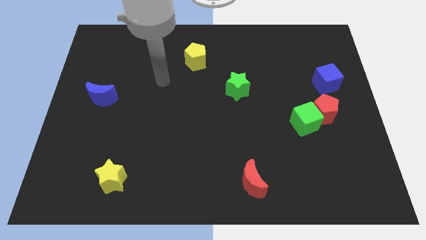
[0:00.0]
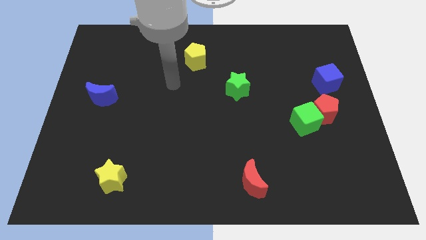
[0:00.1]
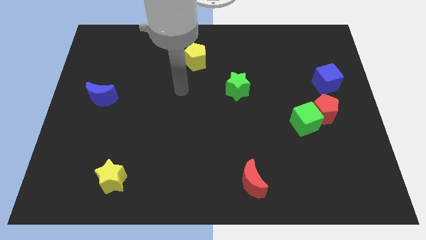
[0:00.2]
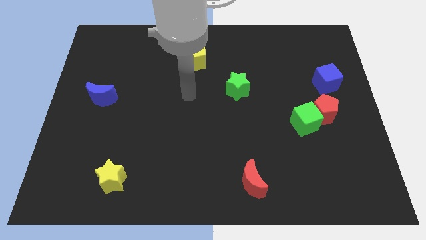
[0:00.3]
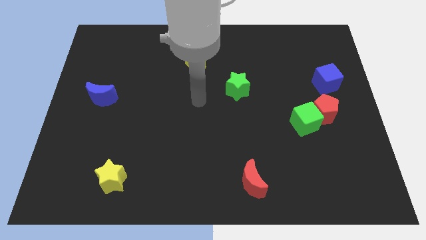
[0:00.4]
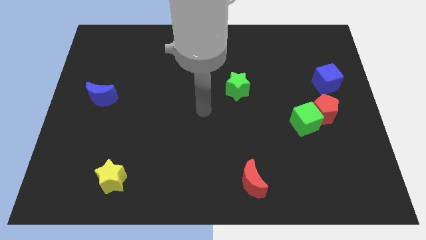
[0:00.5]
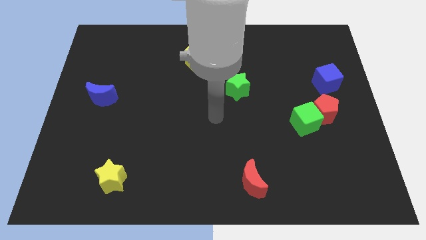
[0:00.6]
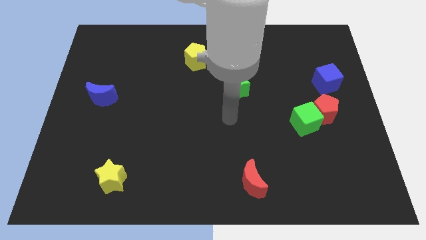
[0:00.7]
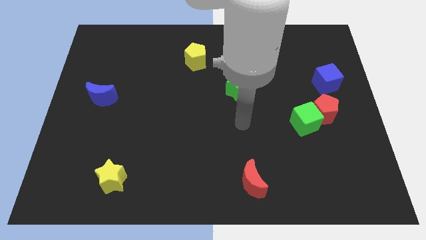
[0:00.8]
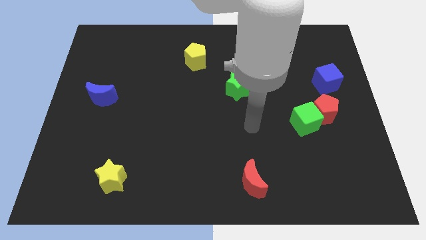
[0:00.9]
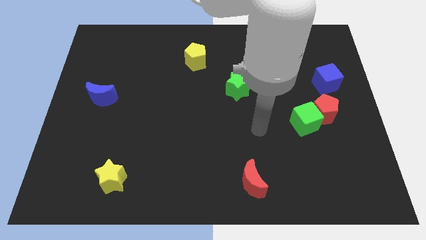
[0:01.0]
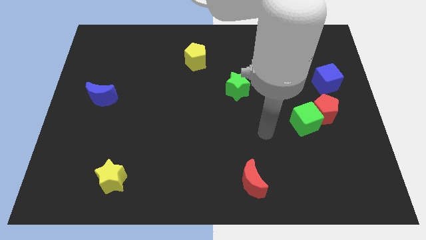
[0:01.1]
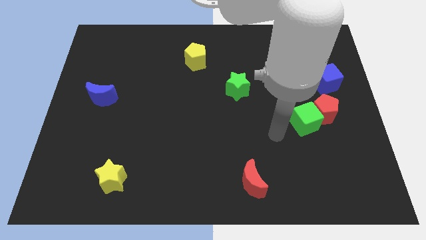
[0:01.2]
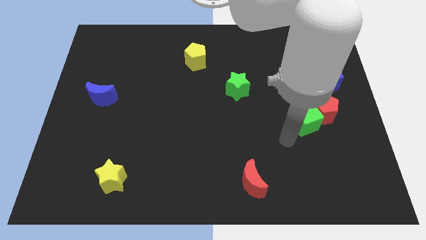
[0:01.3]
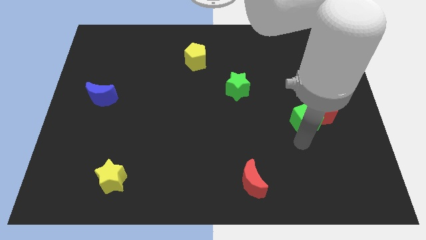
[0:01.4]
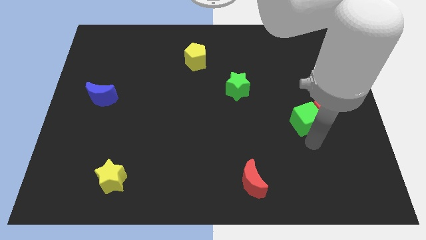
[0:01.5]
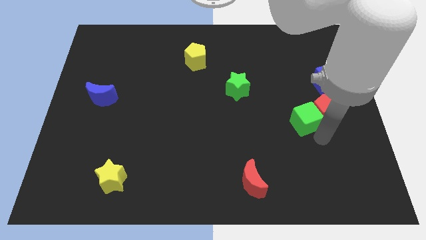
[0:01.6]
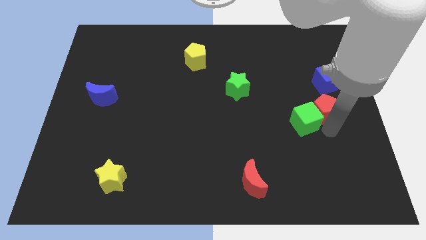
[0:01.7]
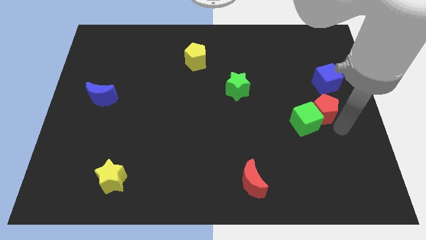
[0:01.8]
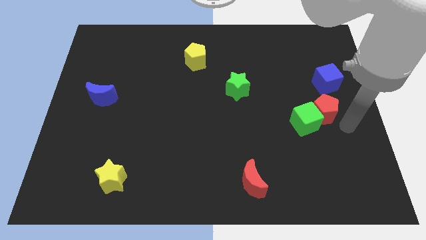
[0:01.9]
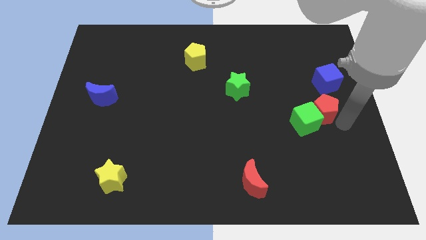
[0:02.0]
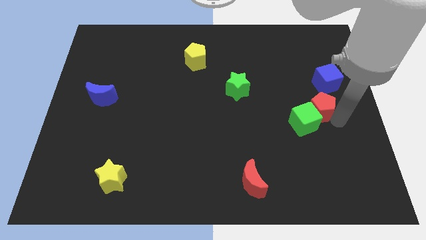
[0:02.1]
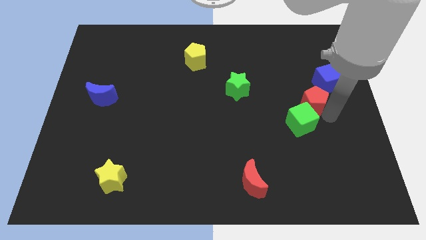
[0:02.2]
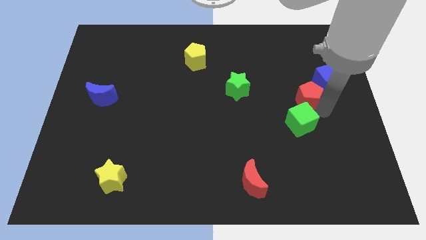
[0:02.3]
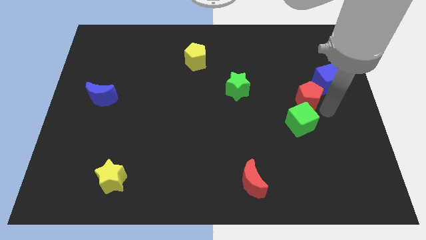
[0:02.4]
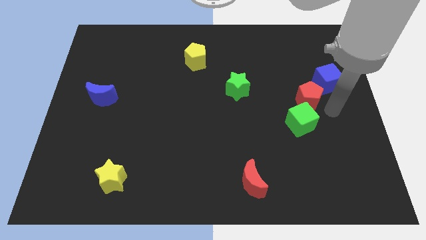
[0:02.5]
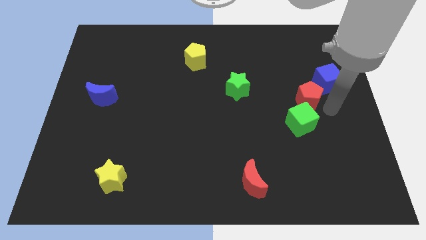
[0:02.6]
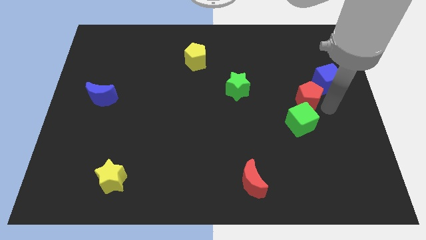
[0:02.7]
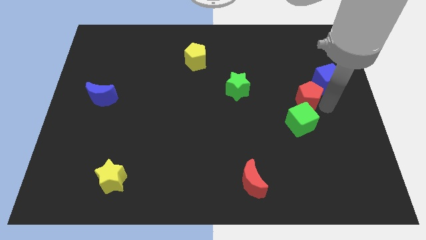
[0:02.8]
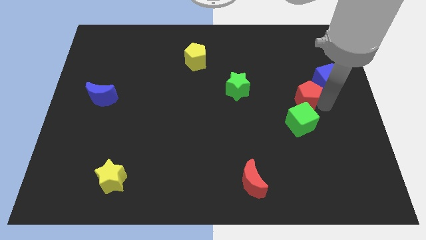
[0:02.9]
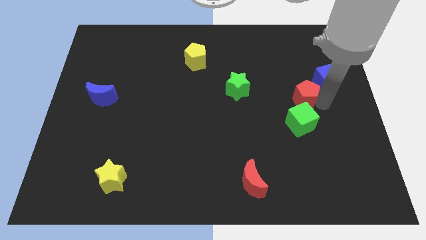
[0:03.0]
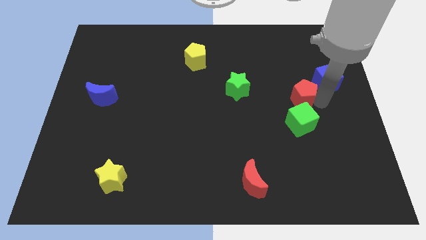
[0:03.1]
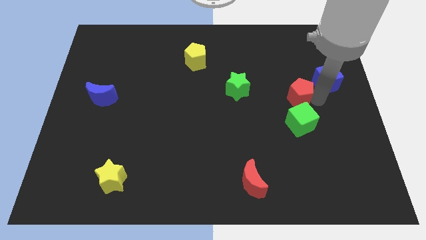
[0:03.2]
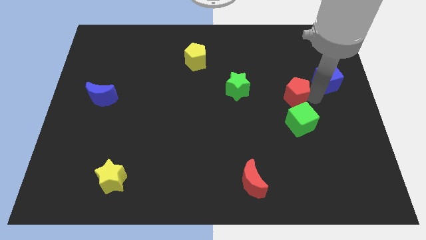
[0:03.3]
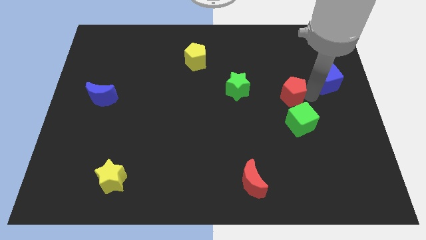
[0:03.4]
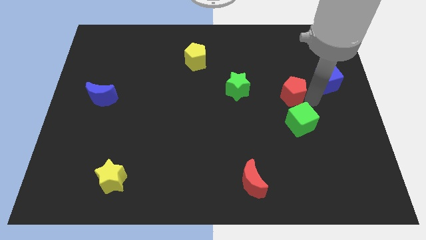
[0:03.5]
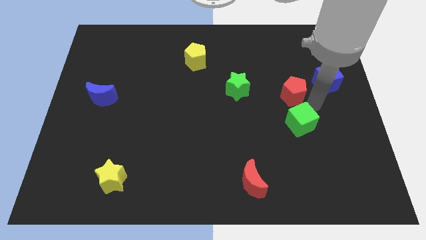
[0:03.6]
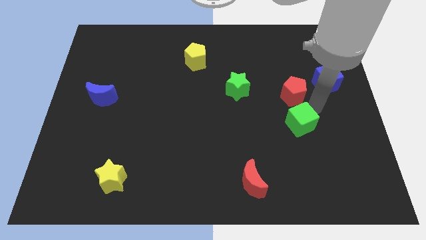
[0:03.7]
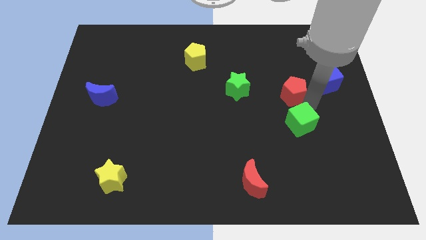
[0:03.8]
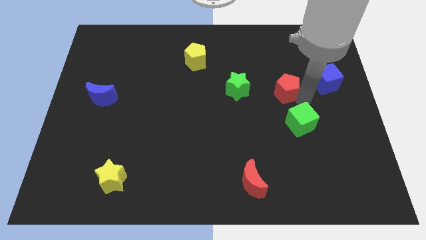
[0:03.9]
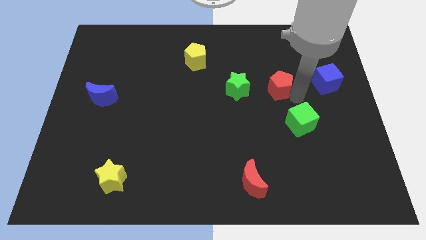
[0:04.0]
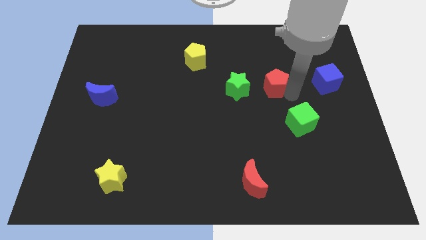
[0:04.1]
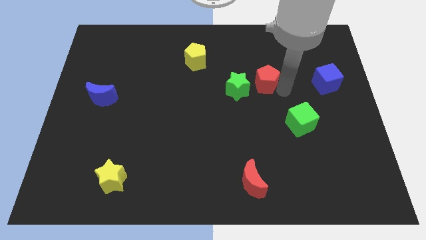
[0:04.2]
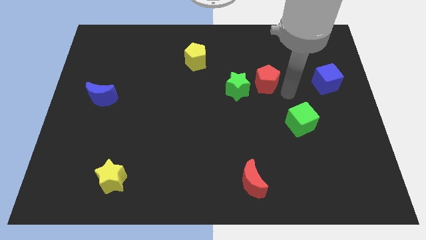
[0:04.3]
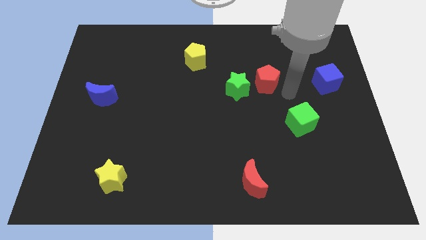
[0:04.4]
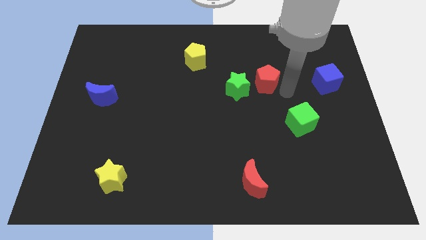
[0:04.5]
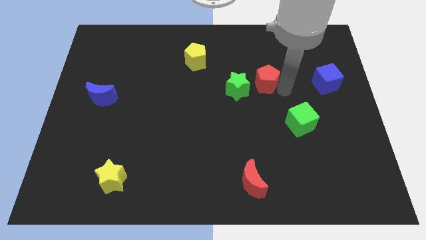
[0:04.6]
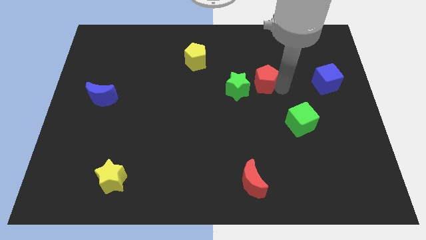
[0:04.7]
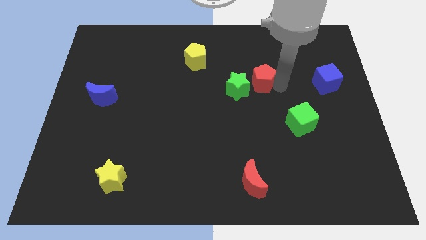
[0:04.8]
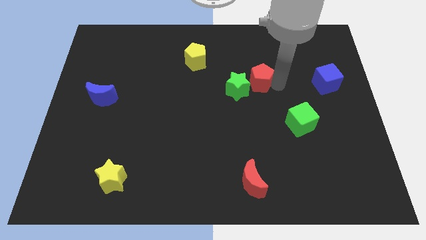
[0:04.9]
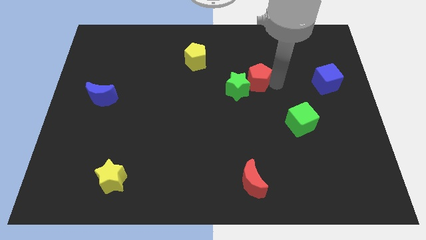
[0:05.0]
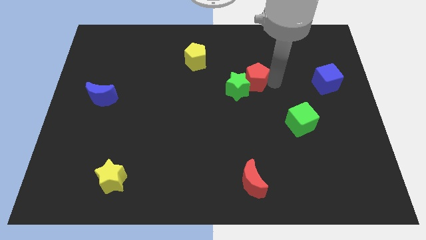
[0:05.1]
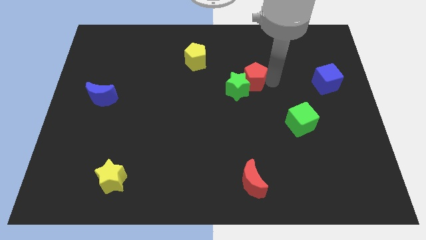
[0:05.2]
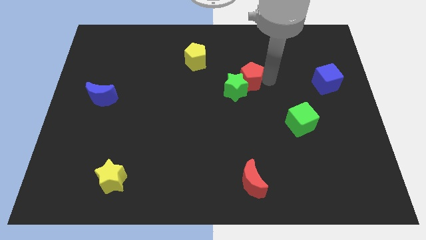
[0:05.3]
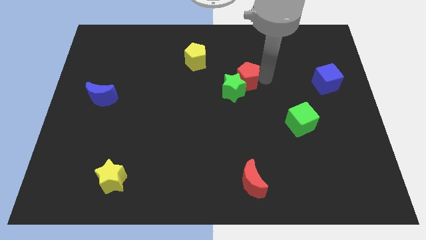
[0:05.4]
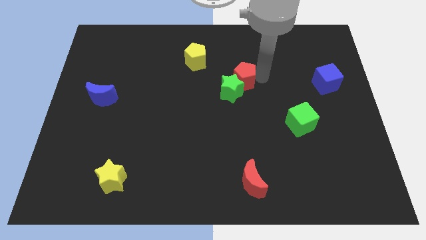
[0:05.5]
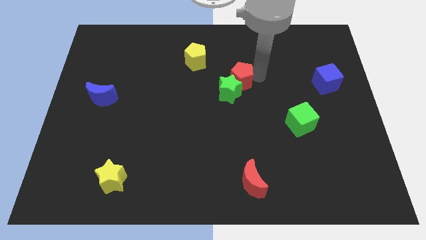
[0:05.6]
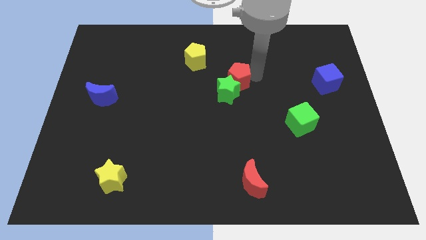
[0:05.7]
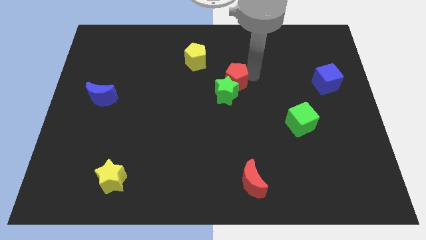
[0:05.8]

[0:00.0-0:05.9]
move the red pentagon diagonally down and to the right of the yellow pentagon

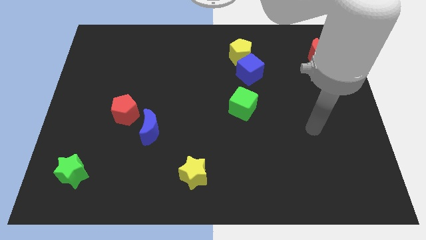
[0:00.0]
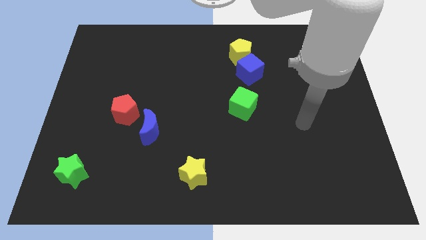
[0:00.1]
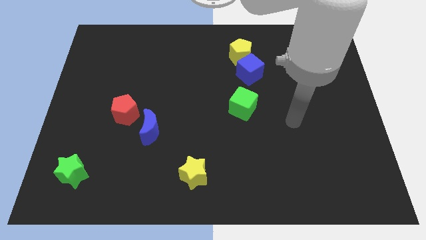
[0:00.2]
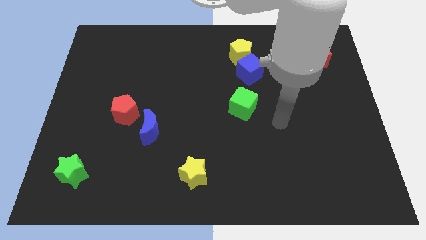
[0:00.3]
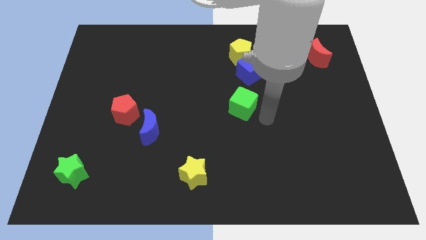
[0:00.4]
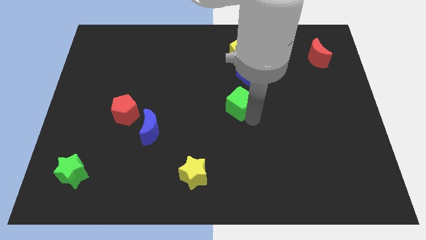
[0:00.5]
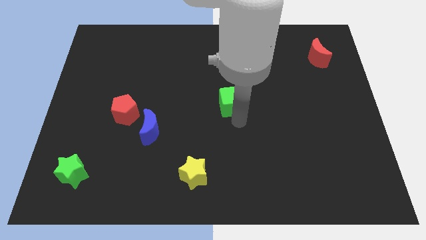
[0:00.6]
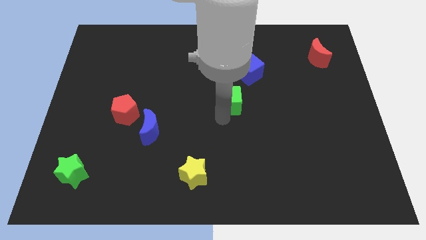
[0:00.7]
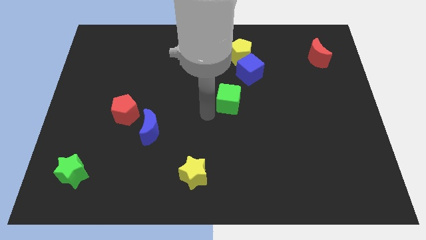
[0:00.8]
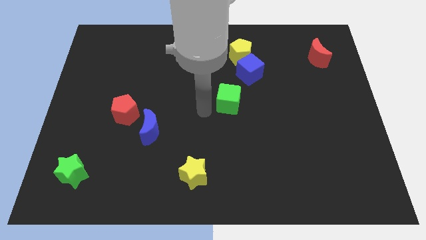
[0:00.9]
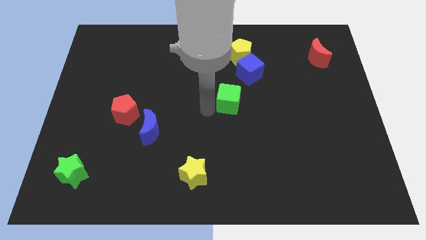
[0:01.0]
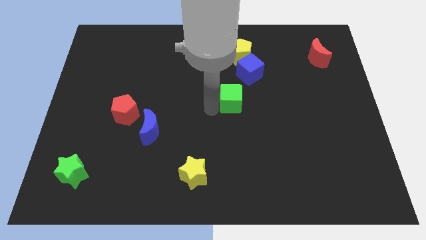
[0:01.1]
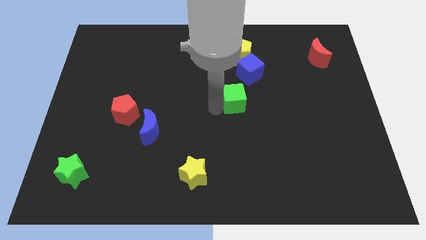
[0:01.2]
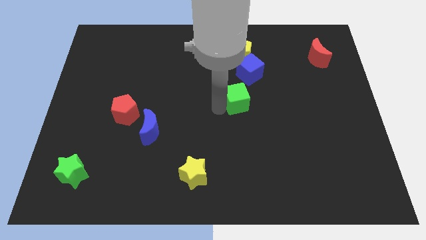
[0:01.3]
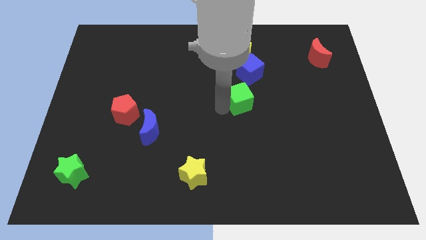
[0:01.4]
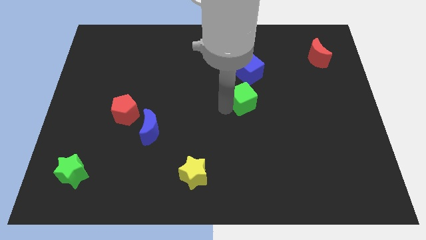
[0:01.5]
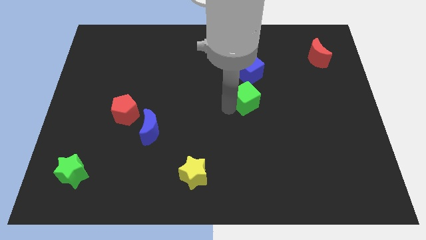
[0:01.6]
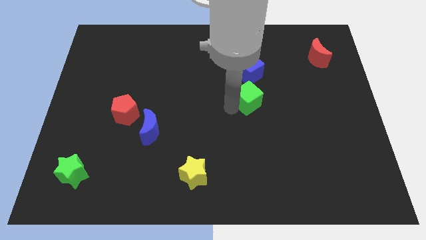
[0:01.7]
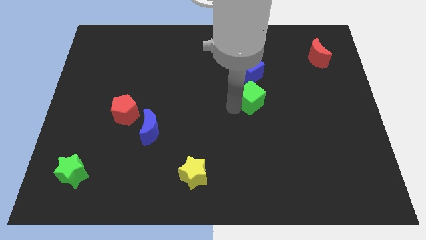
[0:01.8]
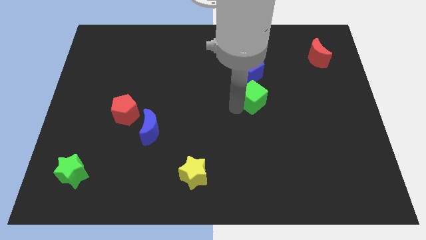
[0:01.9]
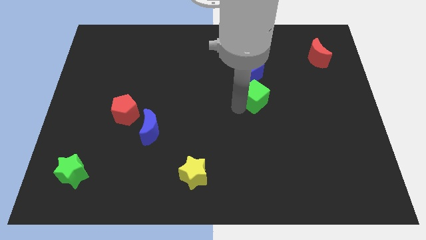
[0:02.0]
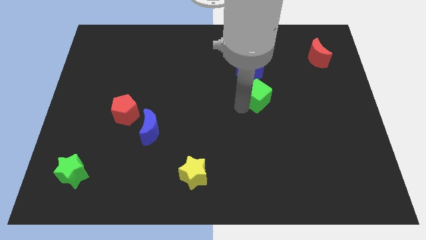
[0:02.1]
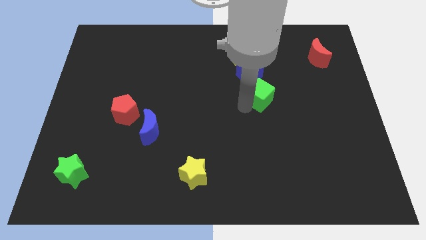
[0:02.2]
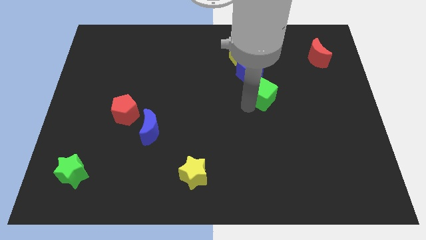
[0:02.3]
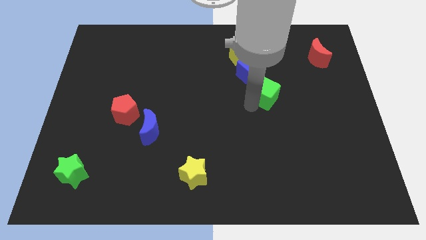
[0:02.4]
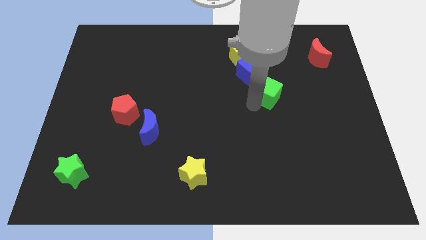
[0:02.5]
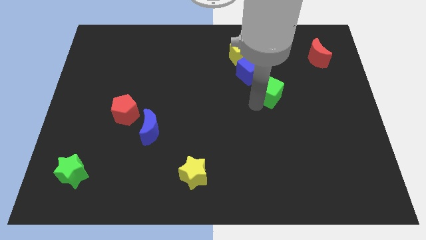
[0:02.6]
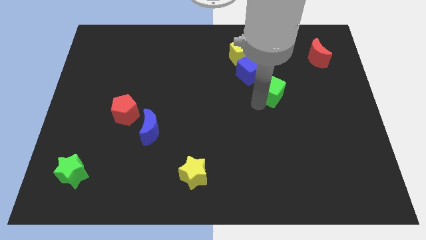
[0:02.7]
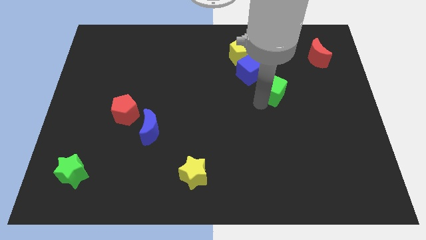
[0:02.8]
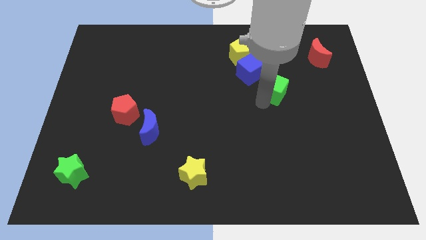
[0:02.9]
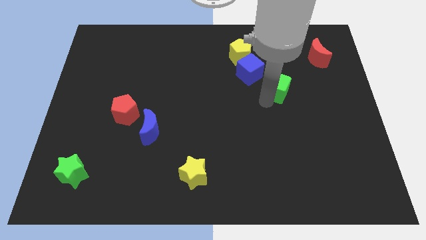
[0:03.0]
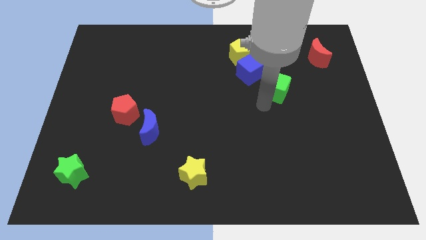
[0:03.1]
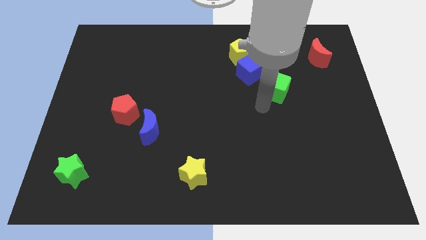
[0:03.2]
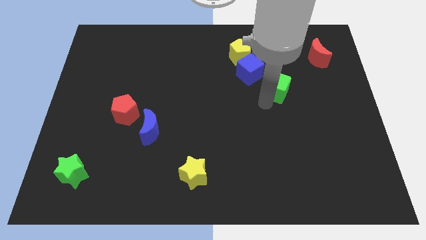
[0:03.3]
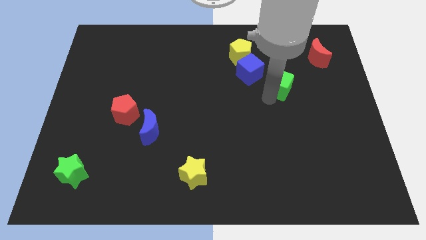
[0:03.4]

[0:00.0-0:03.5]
slide the green cube just right of the blue cube
